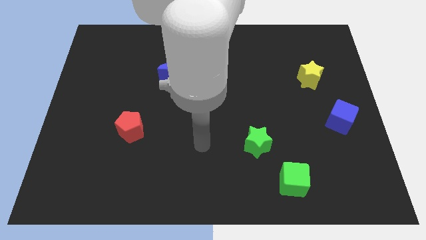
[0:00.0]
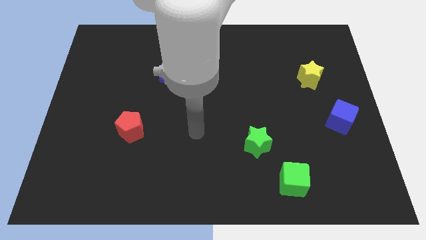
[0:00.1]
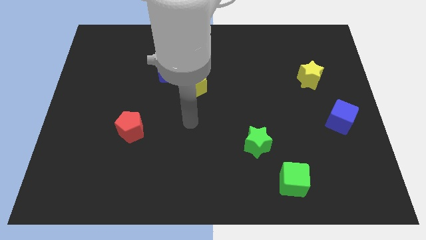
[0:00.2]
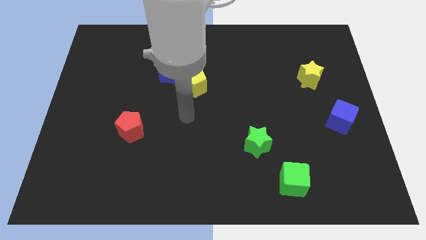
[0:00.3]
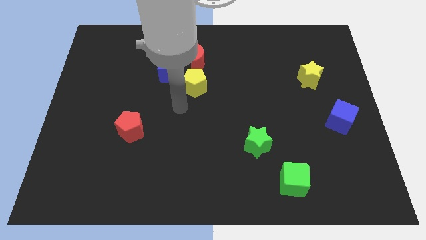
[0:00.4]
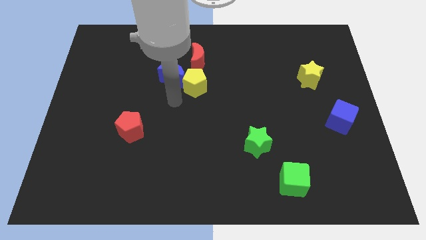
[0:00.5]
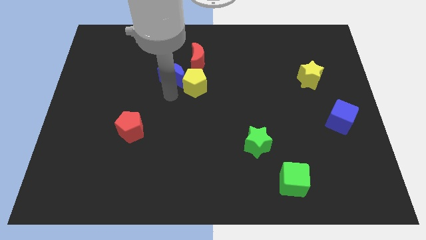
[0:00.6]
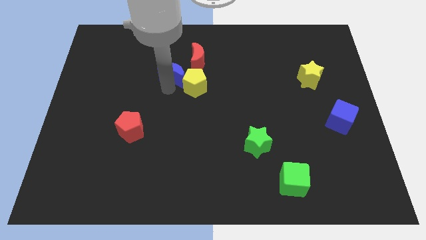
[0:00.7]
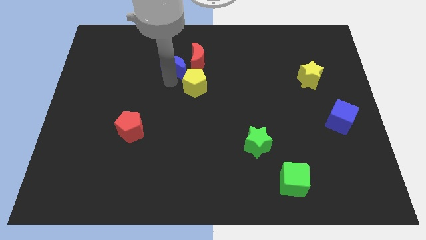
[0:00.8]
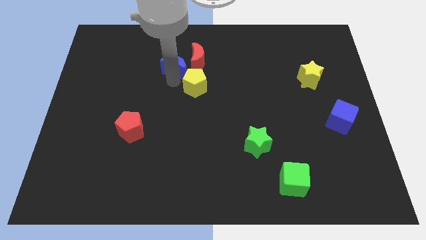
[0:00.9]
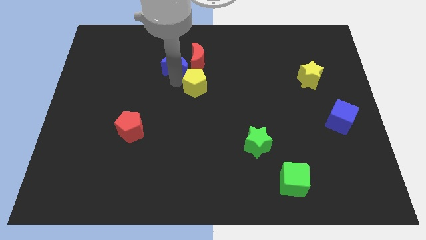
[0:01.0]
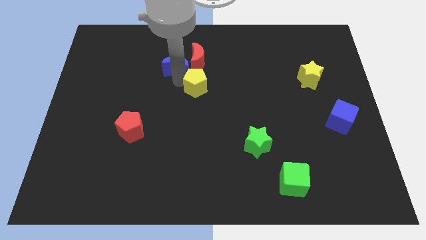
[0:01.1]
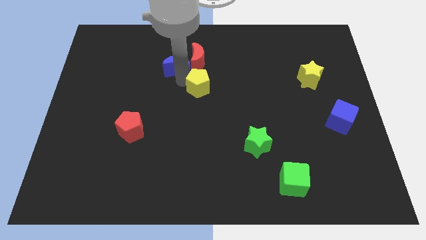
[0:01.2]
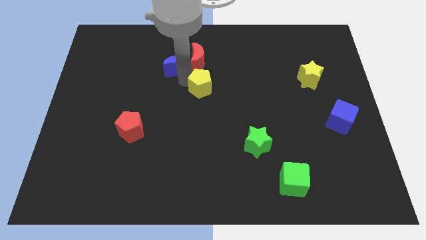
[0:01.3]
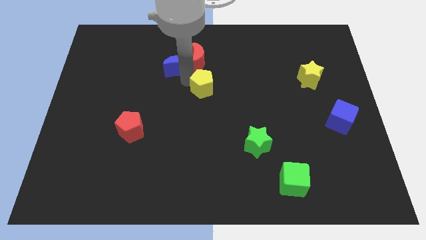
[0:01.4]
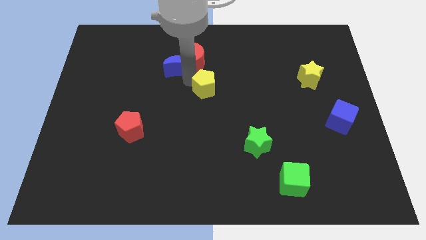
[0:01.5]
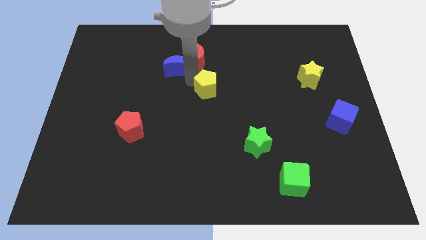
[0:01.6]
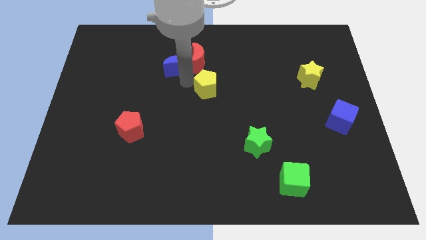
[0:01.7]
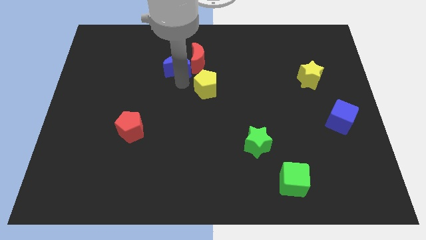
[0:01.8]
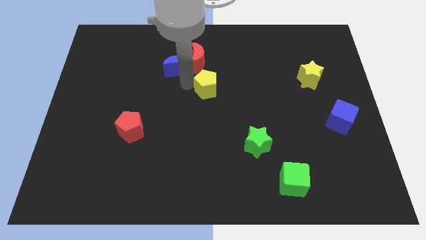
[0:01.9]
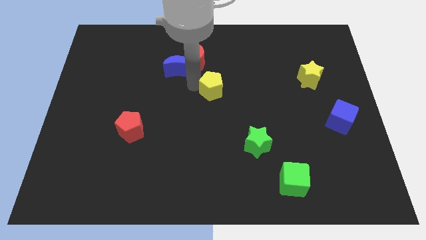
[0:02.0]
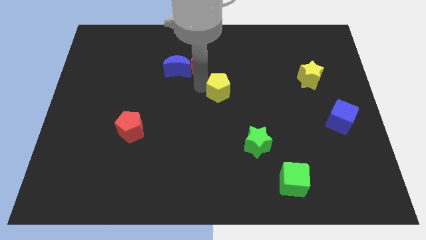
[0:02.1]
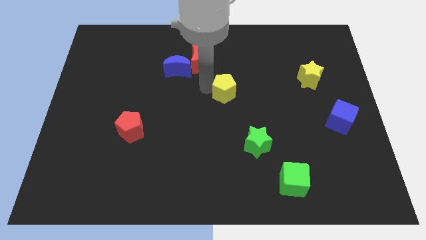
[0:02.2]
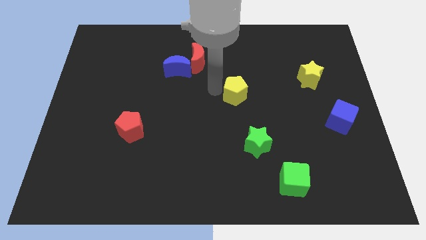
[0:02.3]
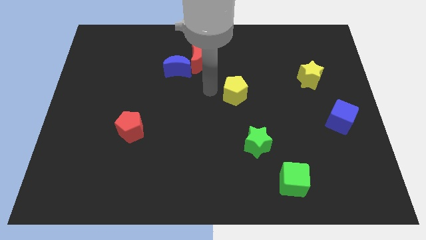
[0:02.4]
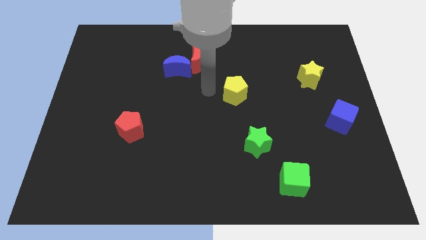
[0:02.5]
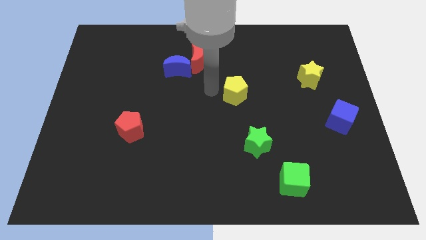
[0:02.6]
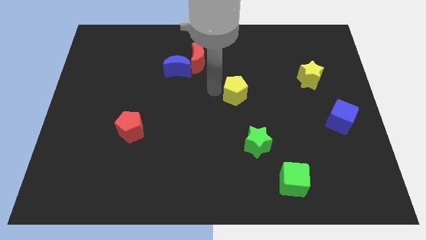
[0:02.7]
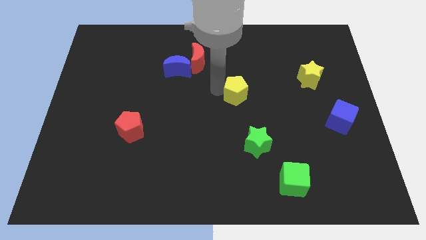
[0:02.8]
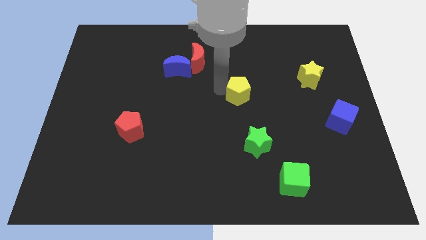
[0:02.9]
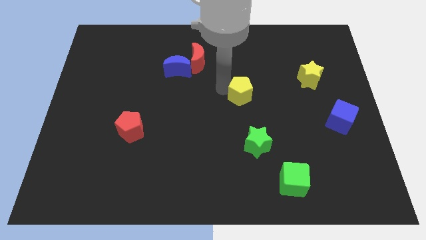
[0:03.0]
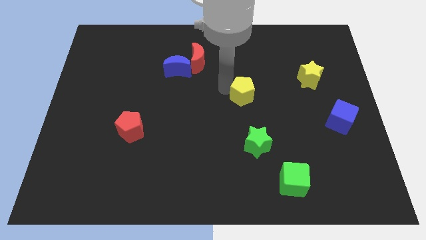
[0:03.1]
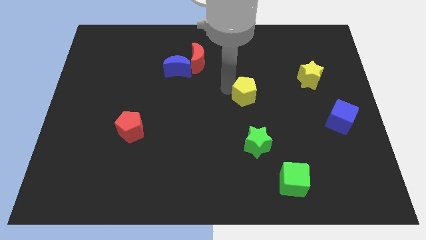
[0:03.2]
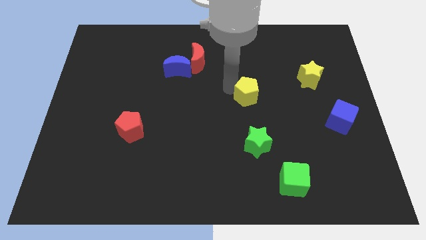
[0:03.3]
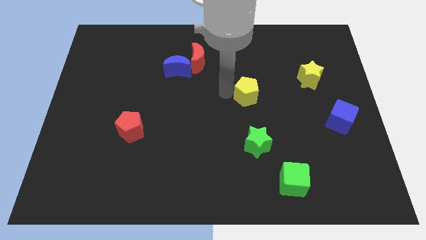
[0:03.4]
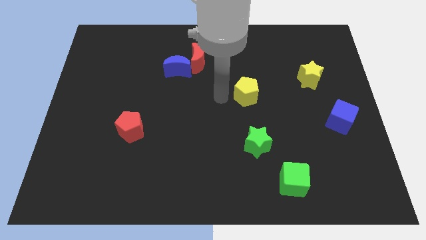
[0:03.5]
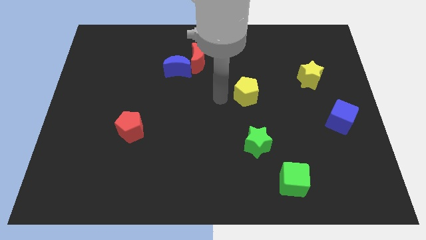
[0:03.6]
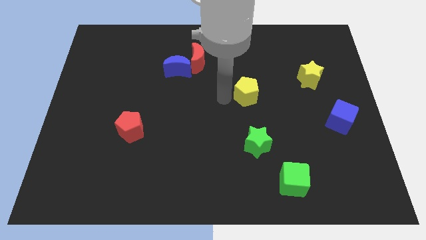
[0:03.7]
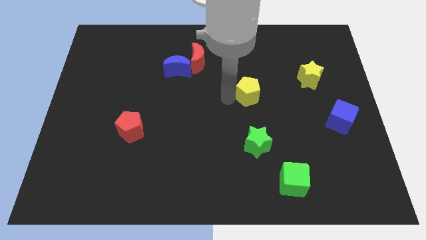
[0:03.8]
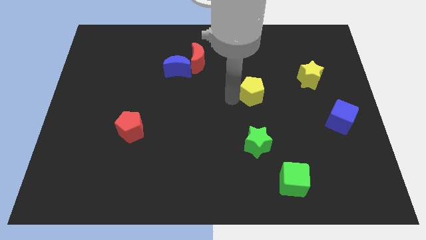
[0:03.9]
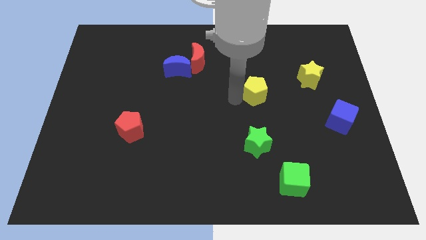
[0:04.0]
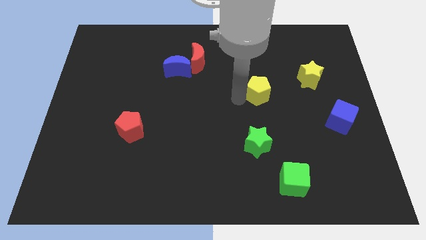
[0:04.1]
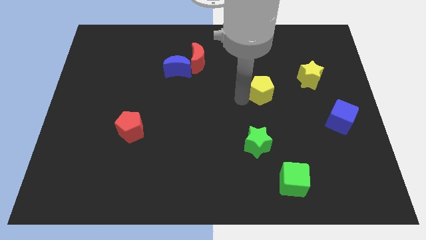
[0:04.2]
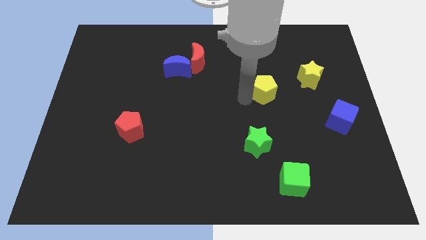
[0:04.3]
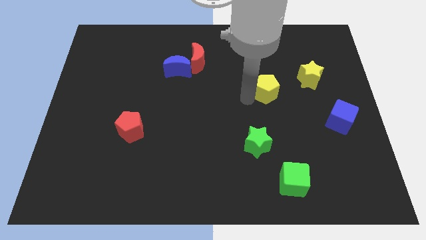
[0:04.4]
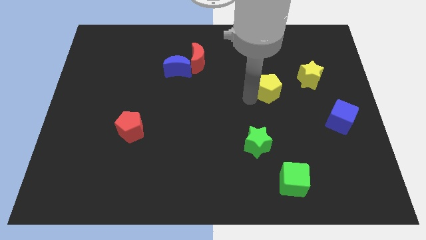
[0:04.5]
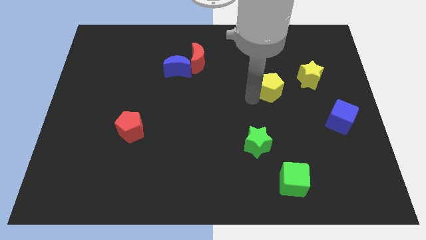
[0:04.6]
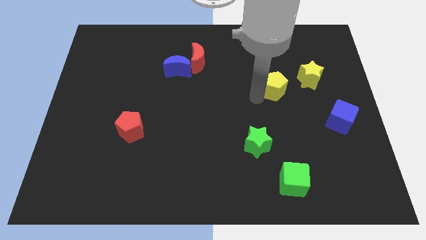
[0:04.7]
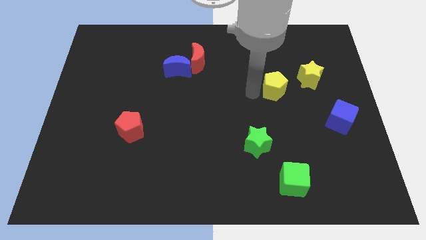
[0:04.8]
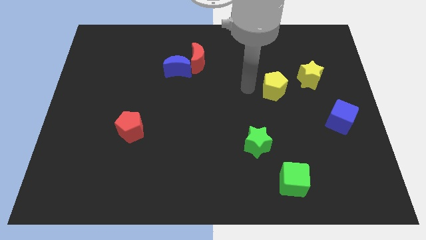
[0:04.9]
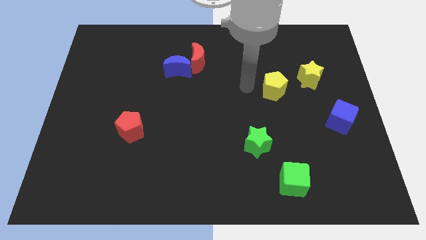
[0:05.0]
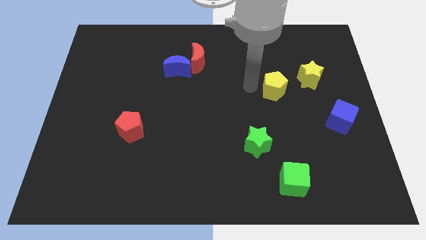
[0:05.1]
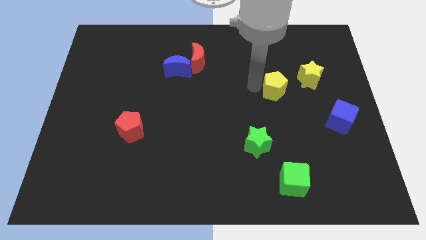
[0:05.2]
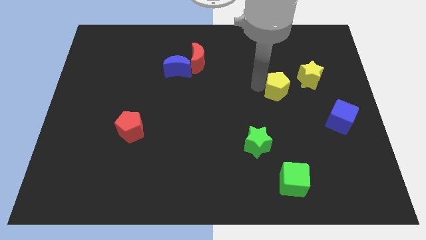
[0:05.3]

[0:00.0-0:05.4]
slide the yellow pentagon to the right

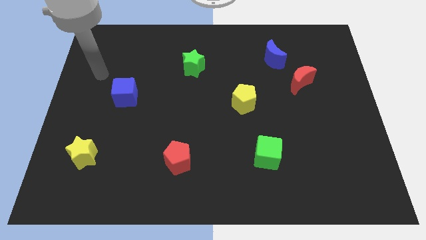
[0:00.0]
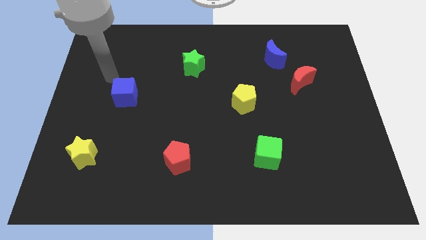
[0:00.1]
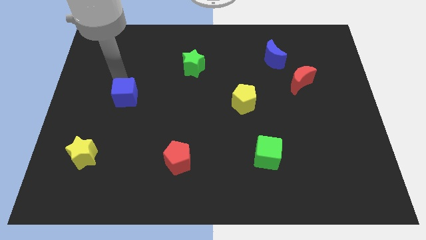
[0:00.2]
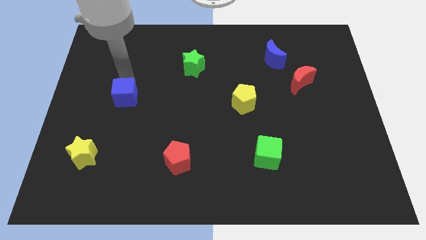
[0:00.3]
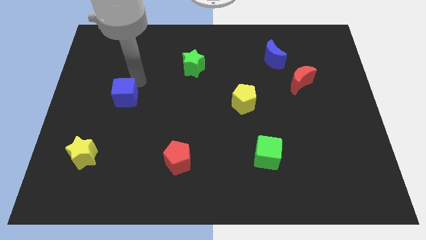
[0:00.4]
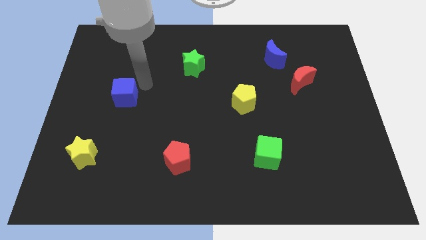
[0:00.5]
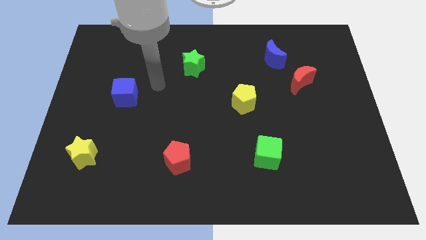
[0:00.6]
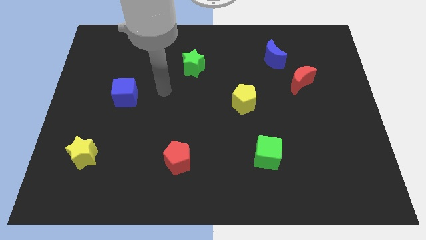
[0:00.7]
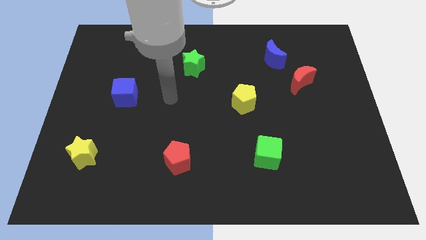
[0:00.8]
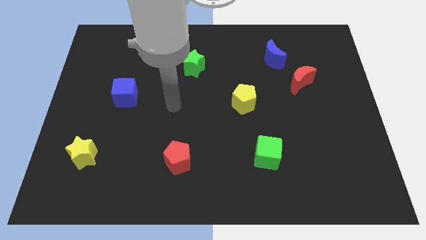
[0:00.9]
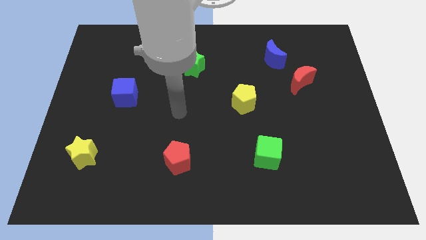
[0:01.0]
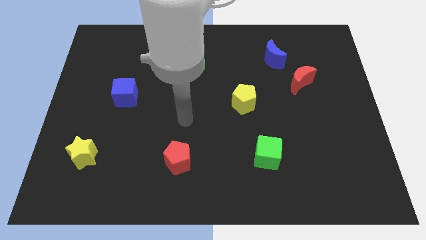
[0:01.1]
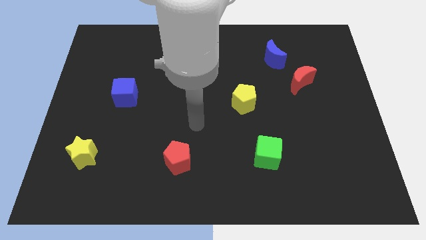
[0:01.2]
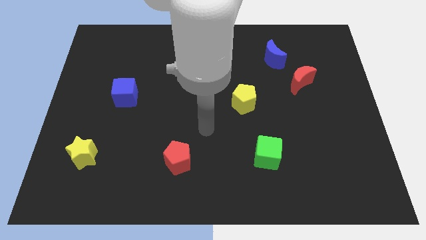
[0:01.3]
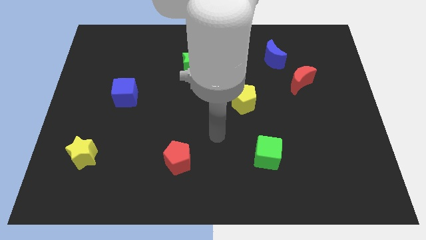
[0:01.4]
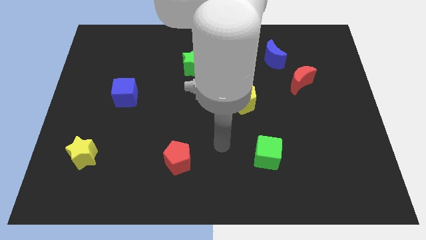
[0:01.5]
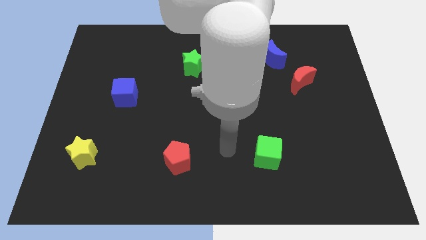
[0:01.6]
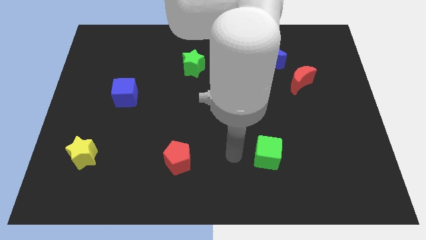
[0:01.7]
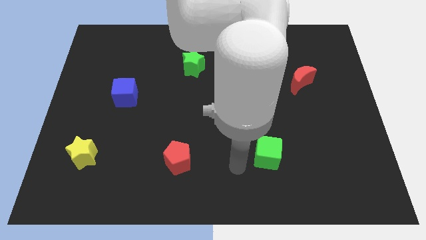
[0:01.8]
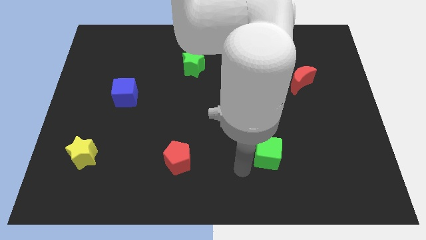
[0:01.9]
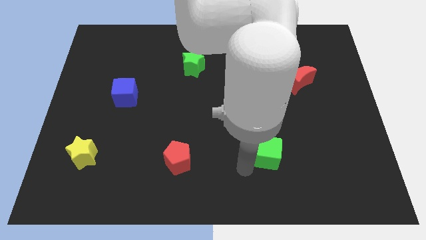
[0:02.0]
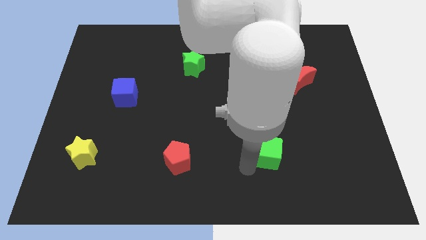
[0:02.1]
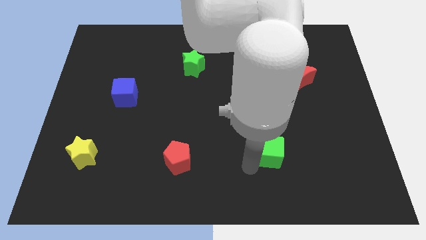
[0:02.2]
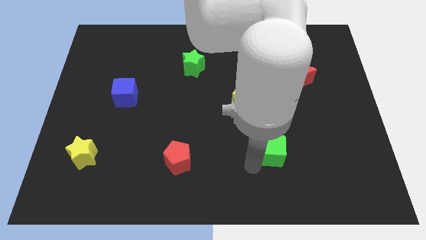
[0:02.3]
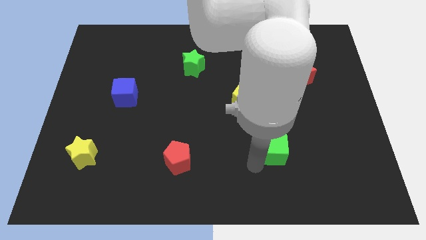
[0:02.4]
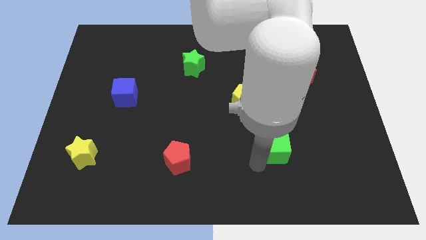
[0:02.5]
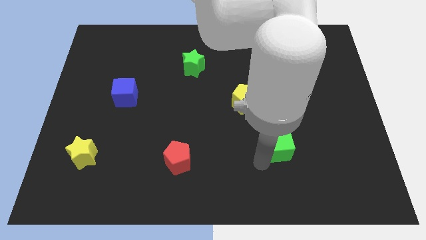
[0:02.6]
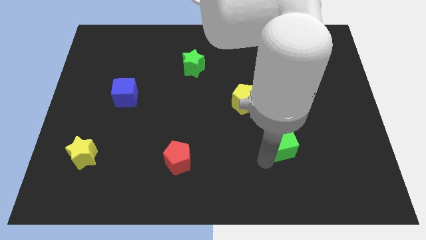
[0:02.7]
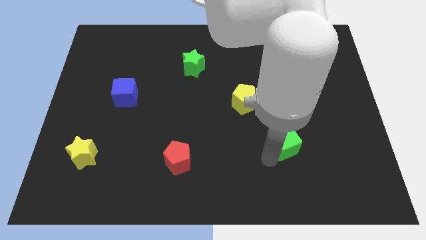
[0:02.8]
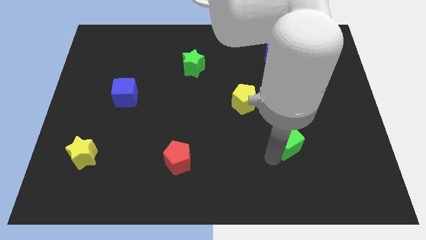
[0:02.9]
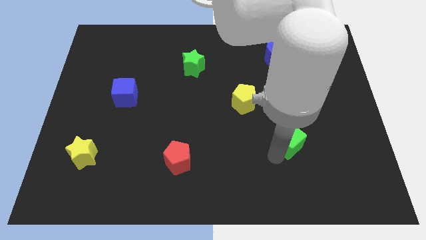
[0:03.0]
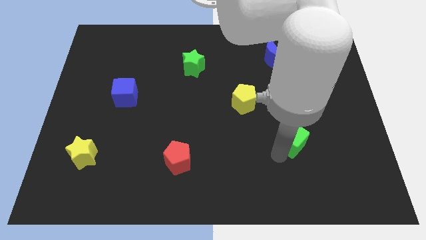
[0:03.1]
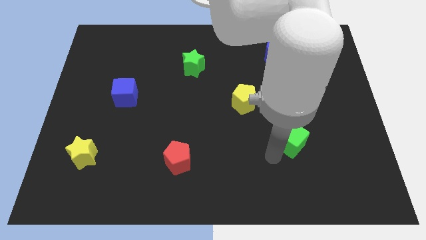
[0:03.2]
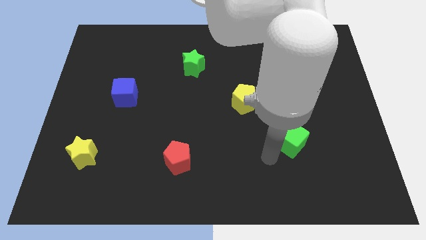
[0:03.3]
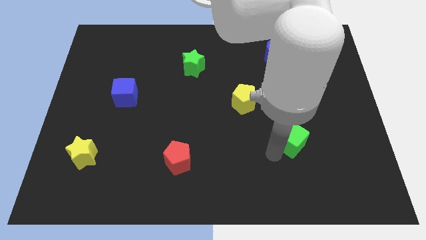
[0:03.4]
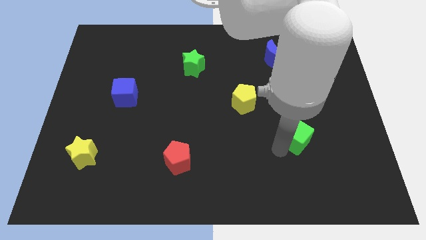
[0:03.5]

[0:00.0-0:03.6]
push the green cube up and then to the right a little
